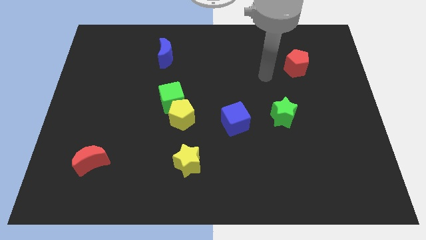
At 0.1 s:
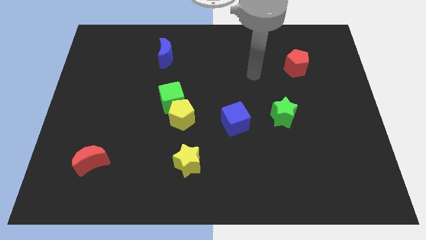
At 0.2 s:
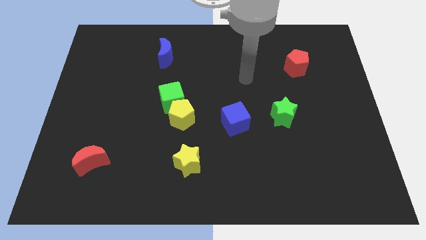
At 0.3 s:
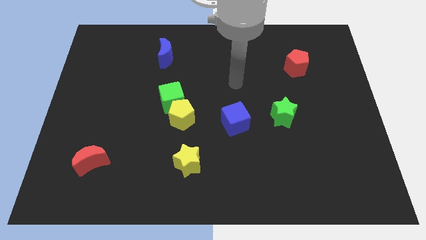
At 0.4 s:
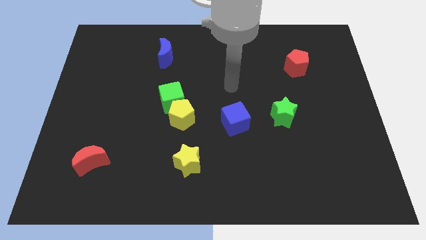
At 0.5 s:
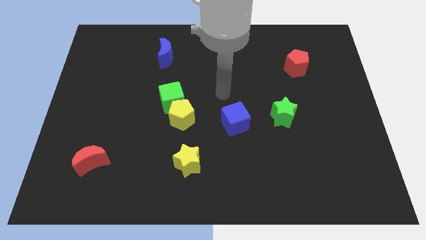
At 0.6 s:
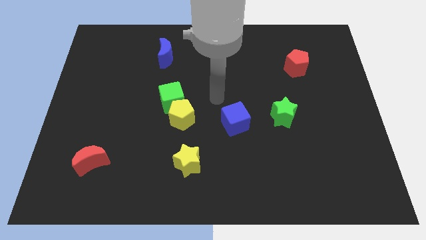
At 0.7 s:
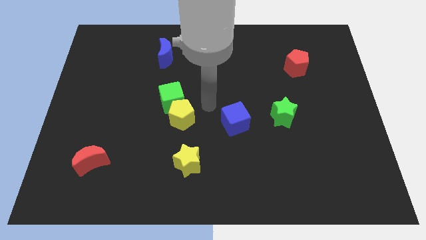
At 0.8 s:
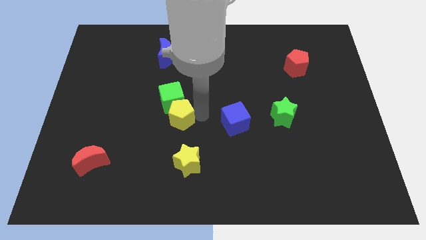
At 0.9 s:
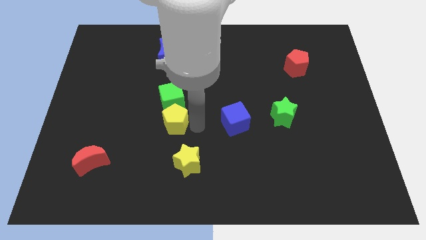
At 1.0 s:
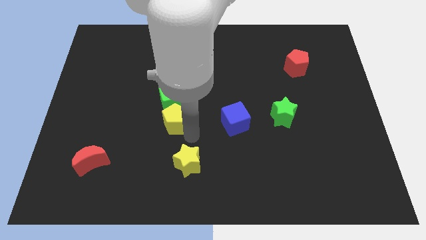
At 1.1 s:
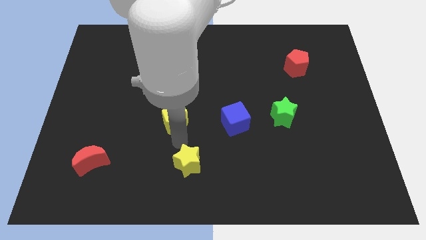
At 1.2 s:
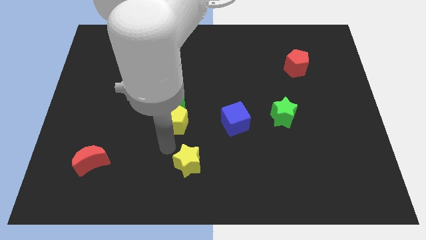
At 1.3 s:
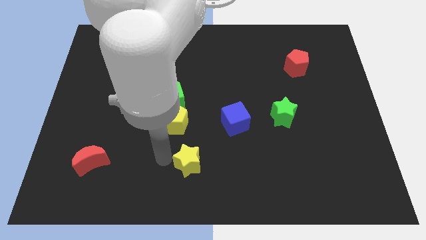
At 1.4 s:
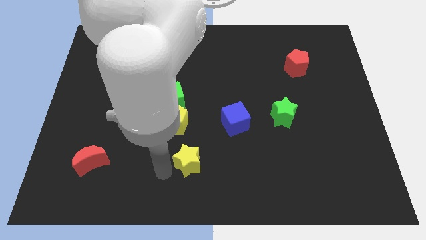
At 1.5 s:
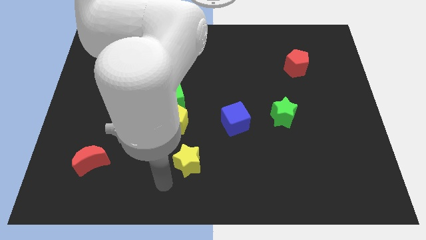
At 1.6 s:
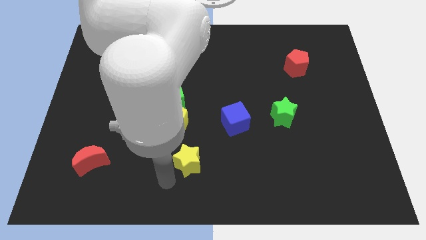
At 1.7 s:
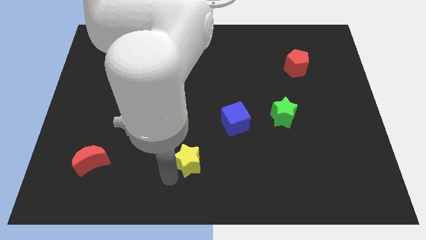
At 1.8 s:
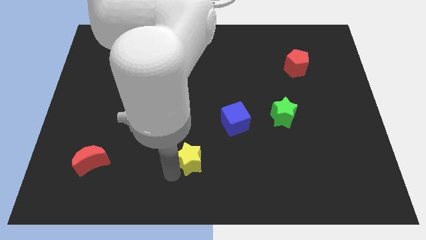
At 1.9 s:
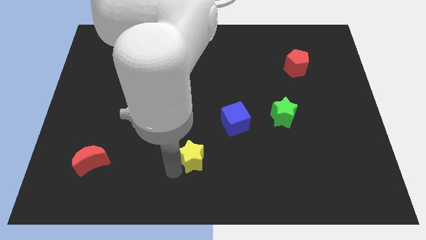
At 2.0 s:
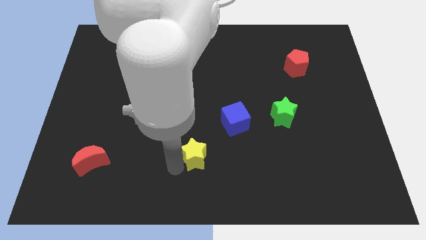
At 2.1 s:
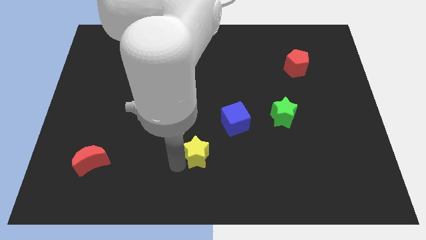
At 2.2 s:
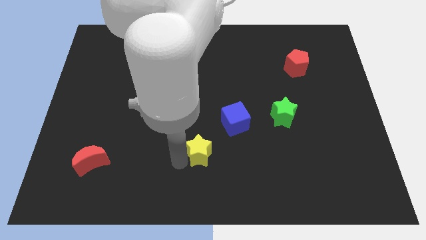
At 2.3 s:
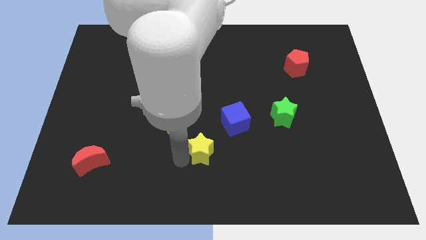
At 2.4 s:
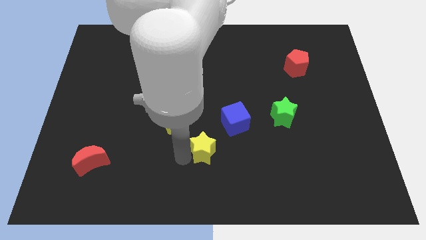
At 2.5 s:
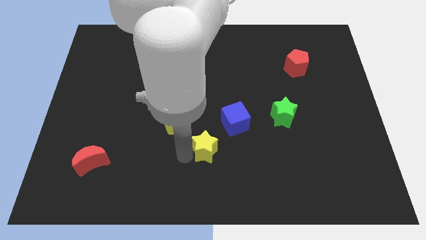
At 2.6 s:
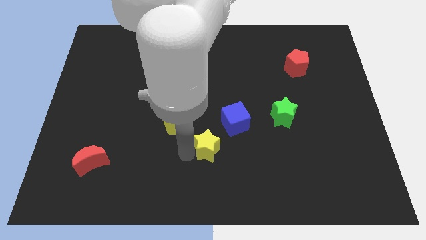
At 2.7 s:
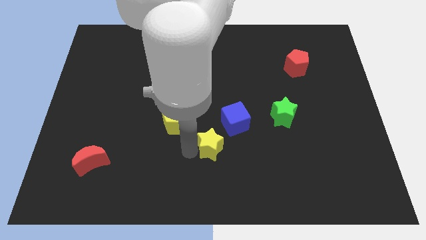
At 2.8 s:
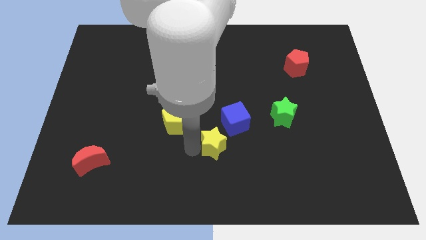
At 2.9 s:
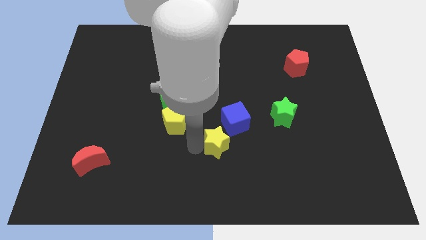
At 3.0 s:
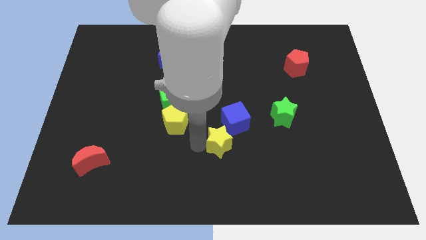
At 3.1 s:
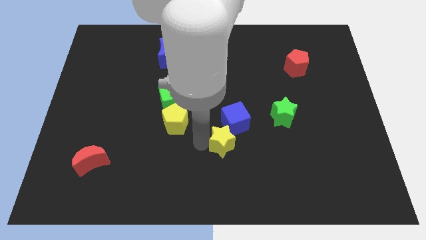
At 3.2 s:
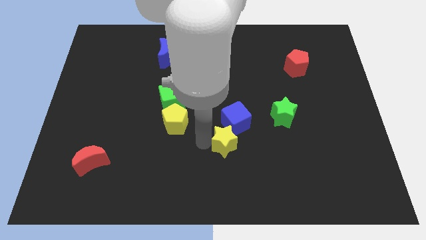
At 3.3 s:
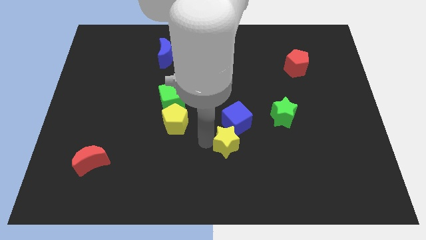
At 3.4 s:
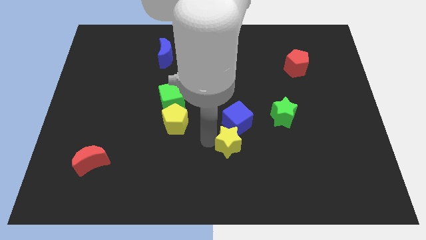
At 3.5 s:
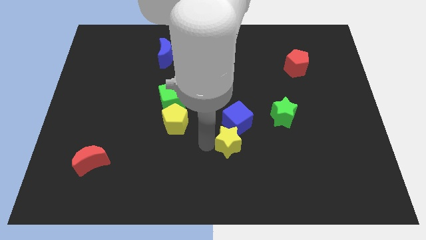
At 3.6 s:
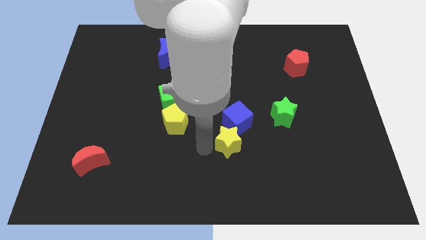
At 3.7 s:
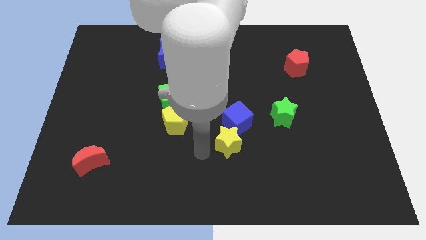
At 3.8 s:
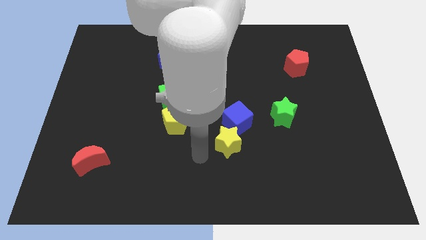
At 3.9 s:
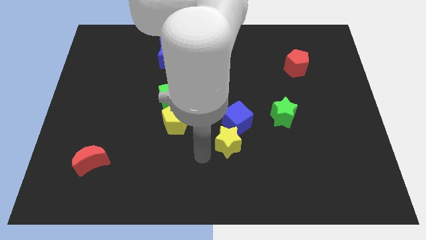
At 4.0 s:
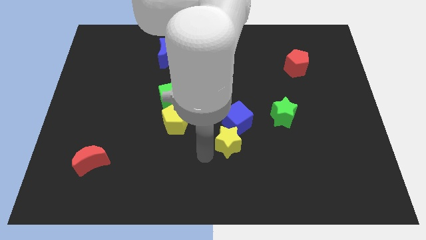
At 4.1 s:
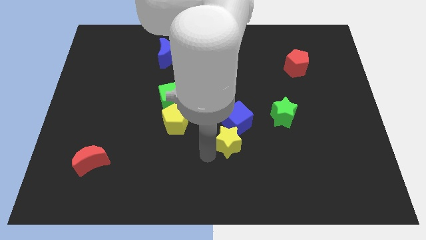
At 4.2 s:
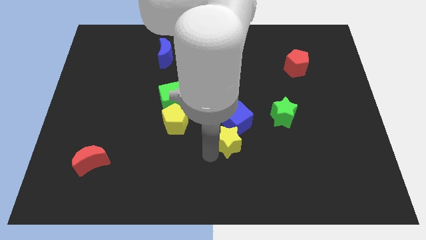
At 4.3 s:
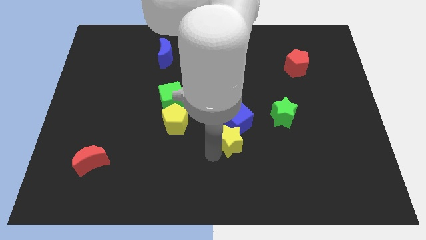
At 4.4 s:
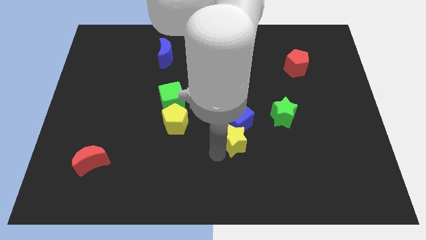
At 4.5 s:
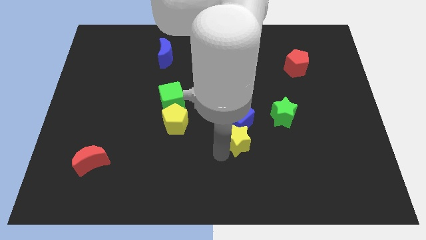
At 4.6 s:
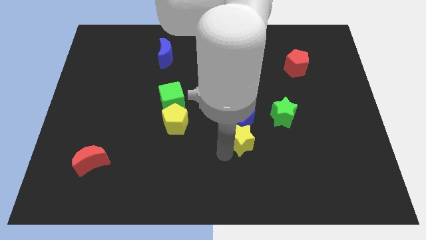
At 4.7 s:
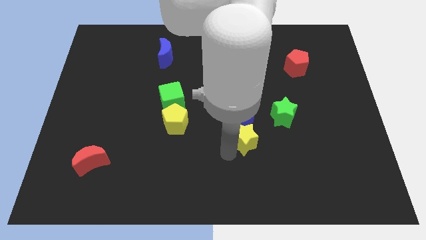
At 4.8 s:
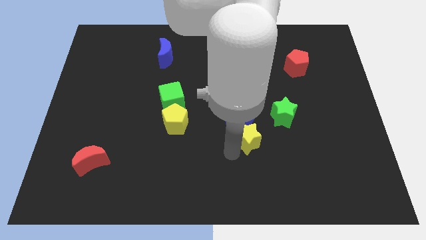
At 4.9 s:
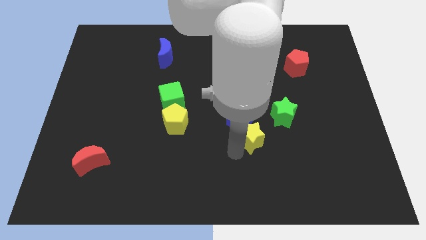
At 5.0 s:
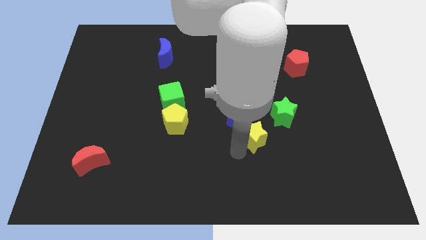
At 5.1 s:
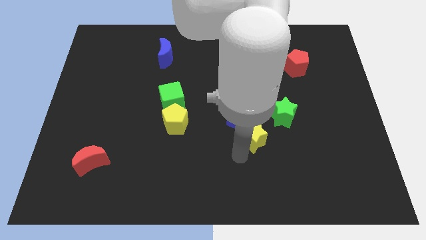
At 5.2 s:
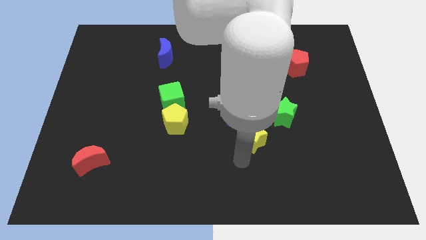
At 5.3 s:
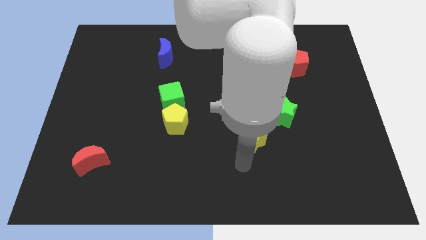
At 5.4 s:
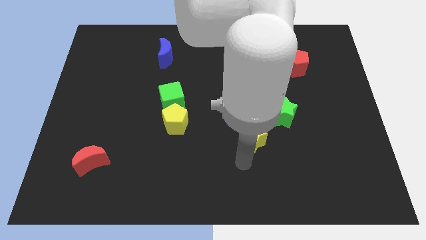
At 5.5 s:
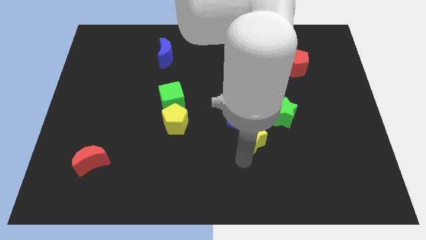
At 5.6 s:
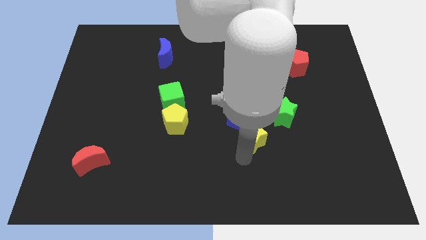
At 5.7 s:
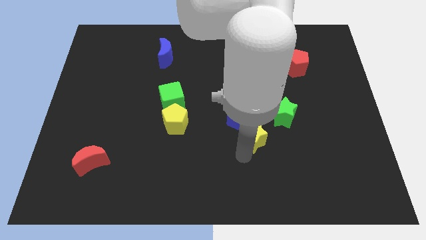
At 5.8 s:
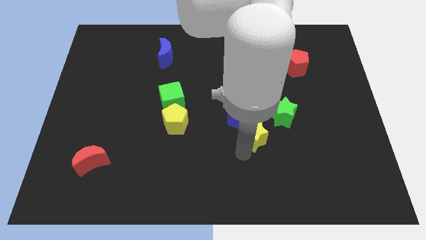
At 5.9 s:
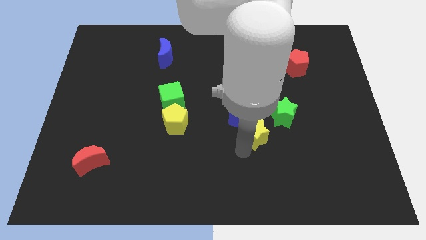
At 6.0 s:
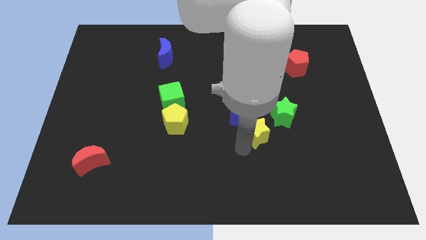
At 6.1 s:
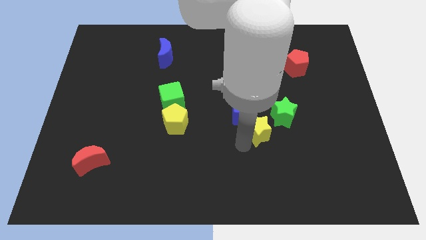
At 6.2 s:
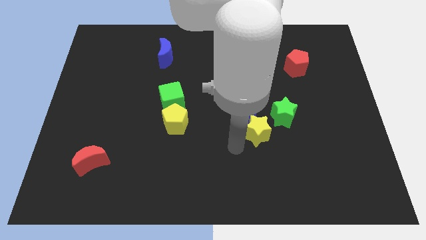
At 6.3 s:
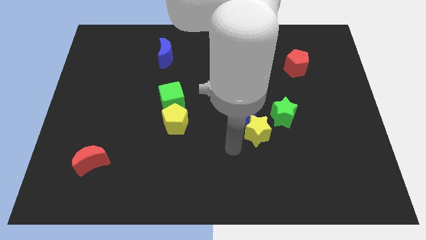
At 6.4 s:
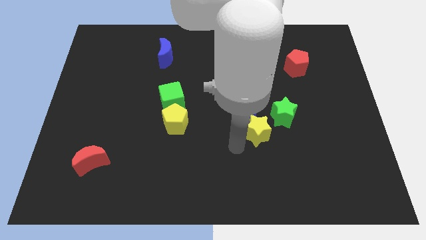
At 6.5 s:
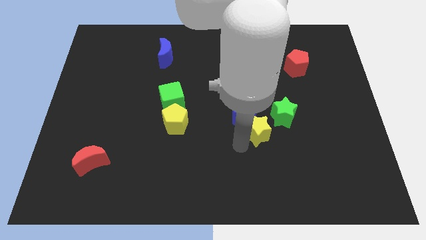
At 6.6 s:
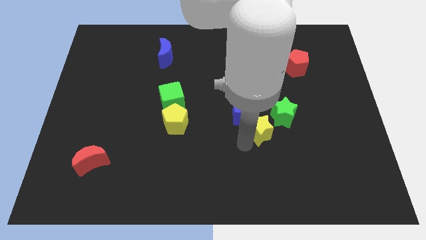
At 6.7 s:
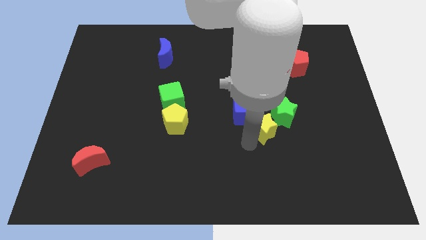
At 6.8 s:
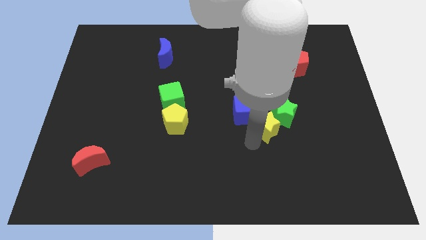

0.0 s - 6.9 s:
put the yellow star to the green star

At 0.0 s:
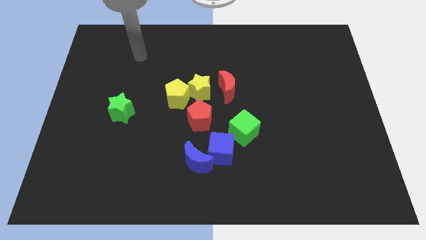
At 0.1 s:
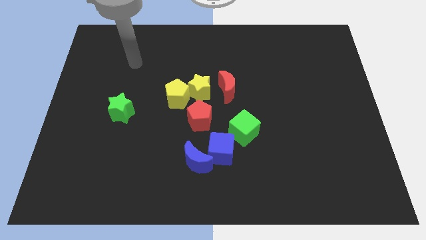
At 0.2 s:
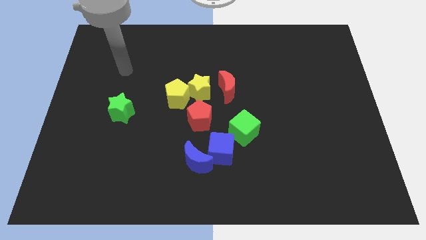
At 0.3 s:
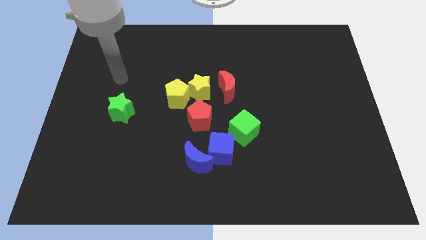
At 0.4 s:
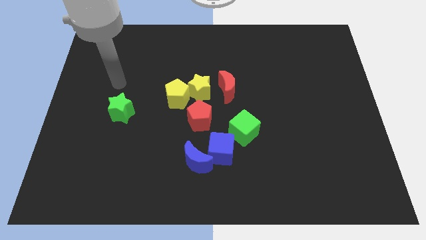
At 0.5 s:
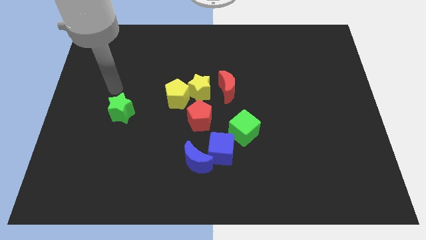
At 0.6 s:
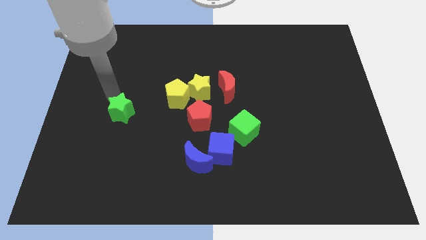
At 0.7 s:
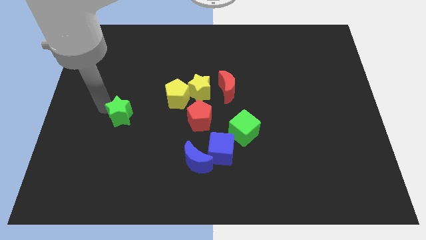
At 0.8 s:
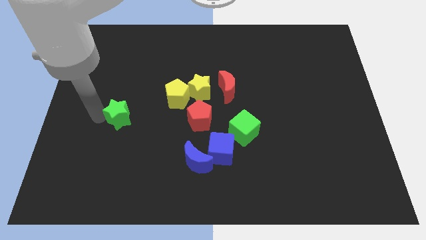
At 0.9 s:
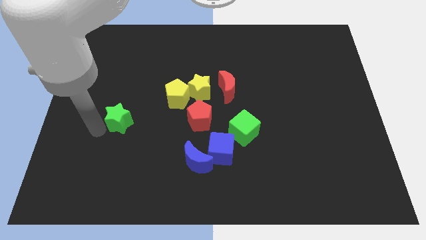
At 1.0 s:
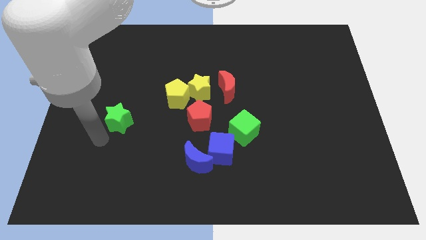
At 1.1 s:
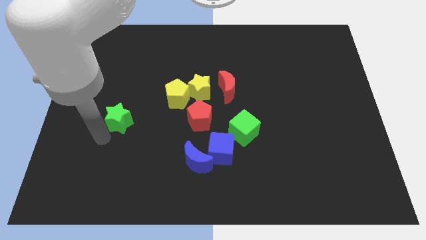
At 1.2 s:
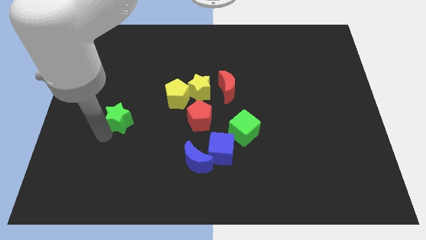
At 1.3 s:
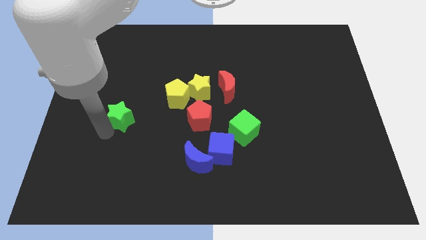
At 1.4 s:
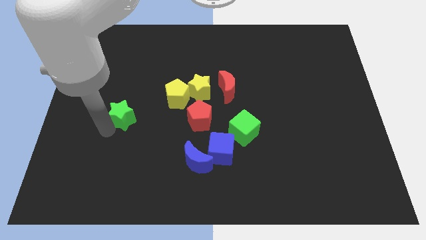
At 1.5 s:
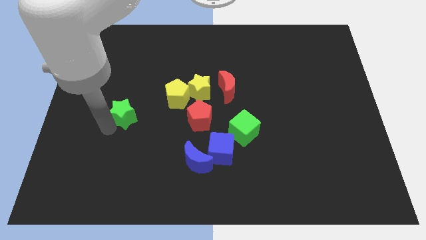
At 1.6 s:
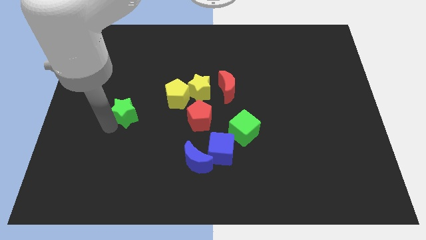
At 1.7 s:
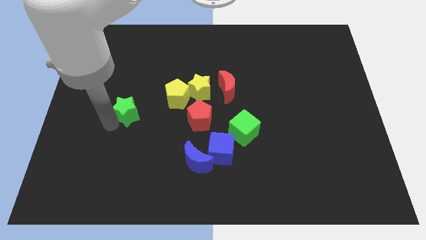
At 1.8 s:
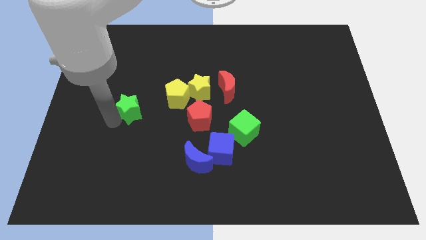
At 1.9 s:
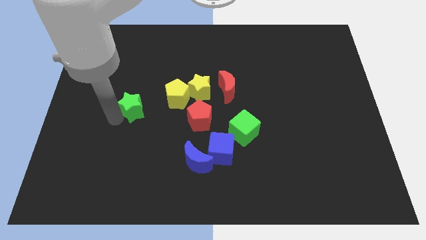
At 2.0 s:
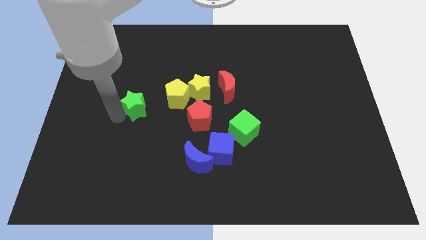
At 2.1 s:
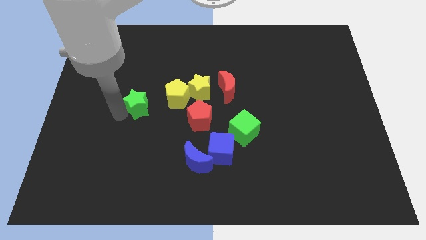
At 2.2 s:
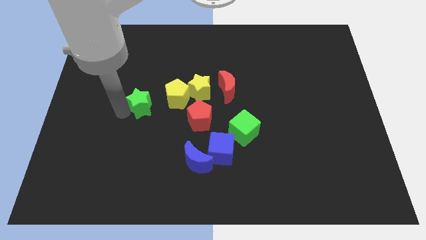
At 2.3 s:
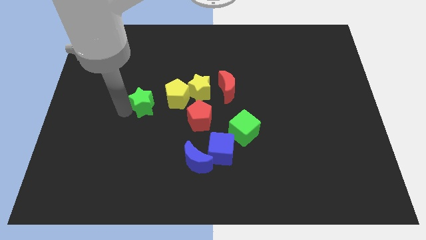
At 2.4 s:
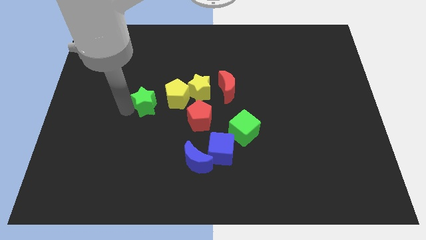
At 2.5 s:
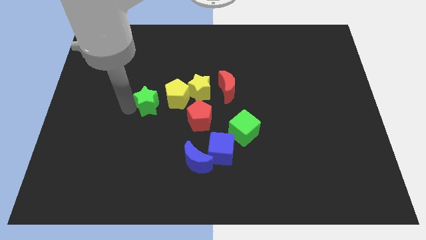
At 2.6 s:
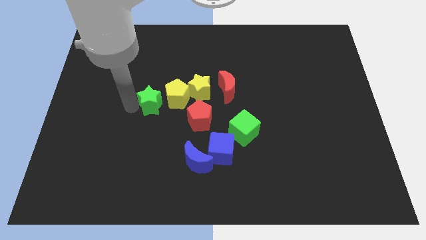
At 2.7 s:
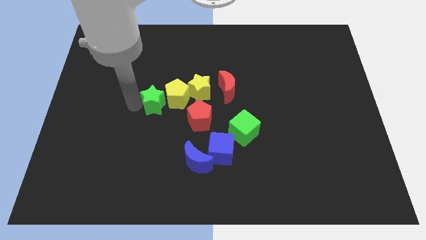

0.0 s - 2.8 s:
put the green star next to the yellow pentagon
